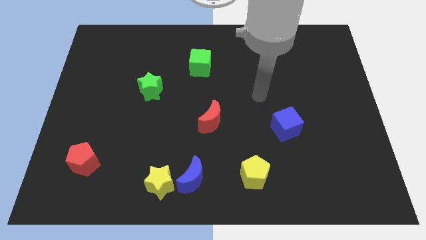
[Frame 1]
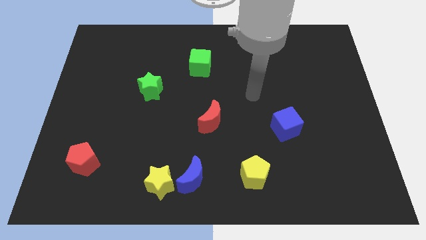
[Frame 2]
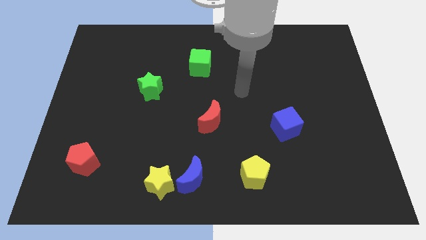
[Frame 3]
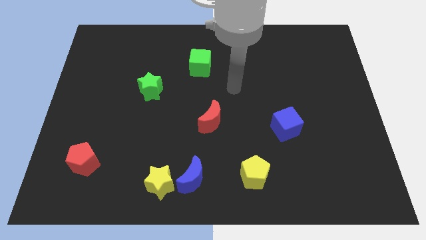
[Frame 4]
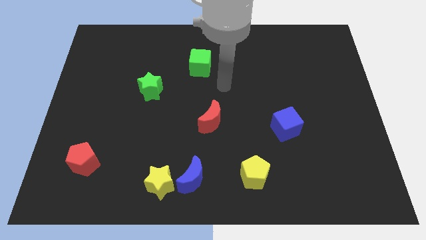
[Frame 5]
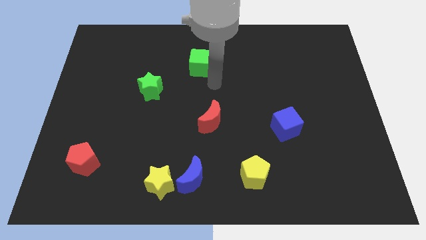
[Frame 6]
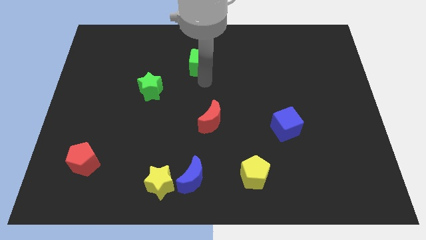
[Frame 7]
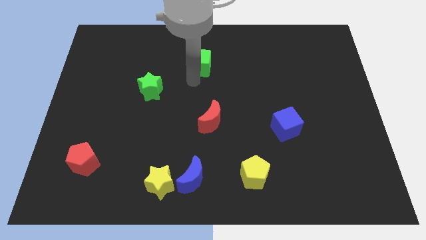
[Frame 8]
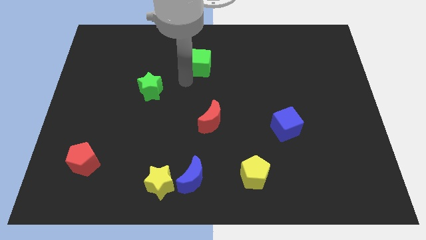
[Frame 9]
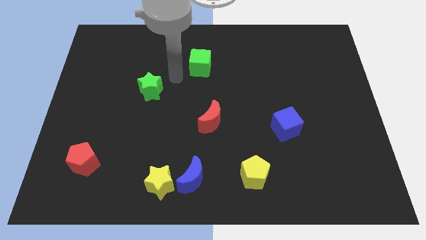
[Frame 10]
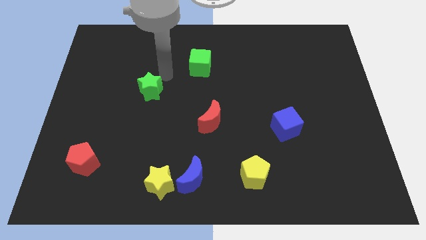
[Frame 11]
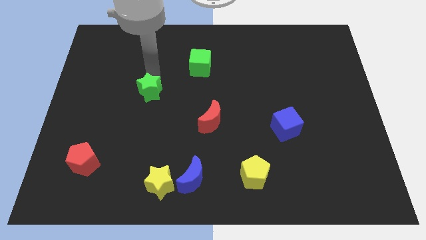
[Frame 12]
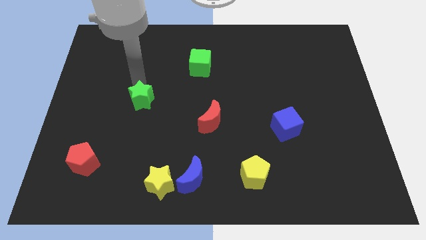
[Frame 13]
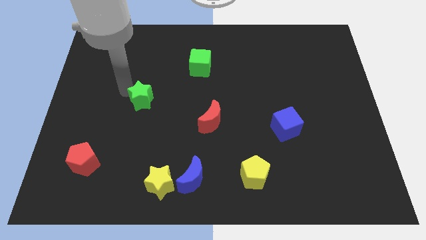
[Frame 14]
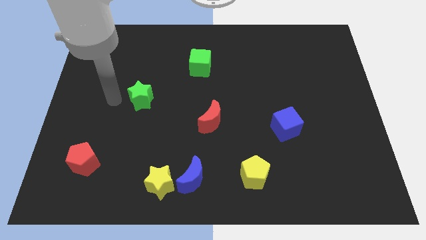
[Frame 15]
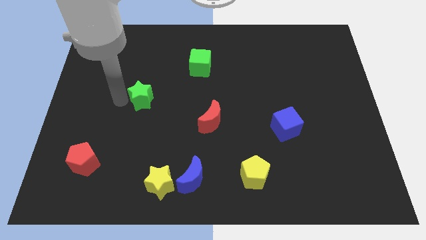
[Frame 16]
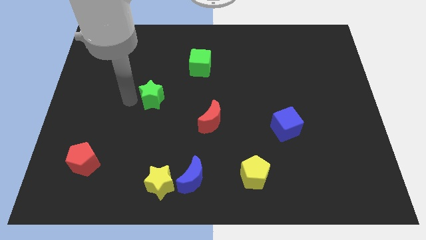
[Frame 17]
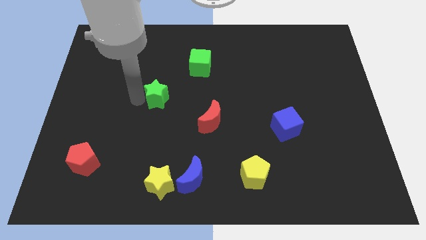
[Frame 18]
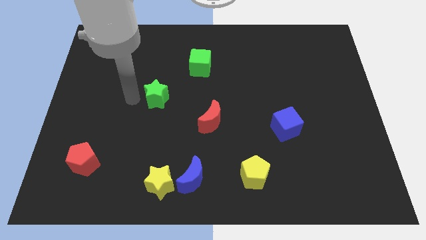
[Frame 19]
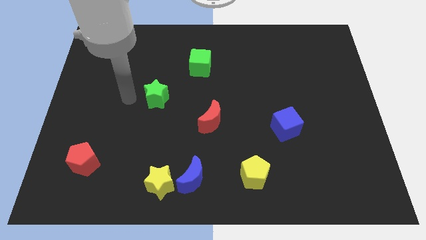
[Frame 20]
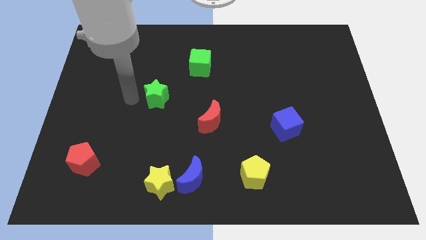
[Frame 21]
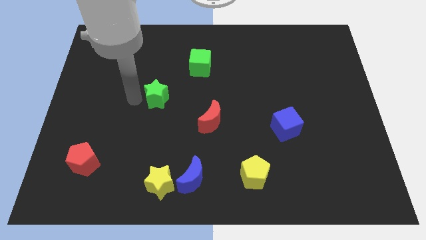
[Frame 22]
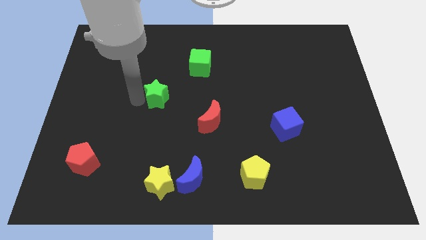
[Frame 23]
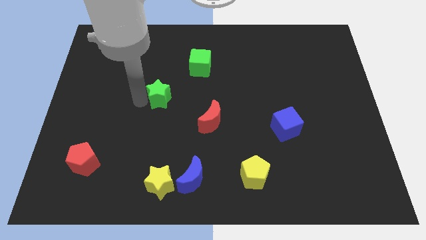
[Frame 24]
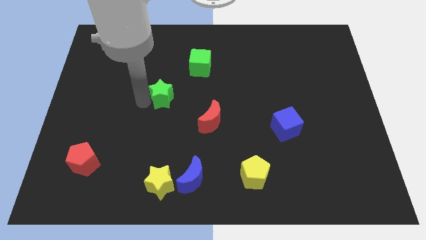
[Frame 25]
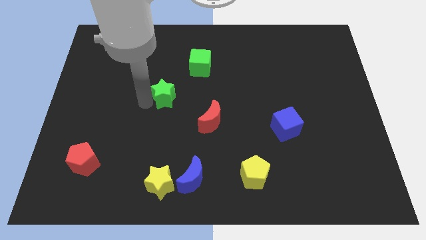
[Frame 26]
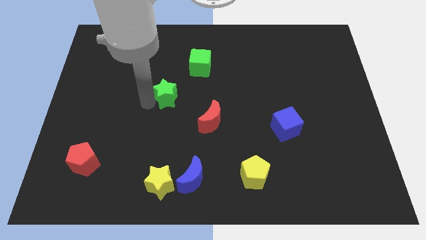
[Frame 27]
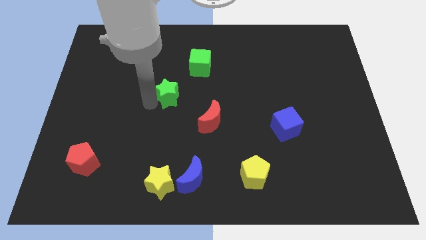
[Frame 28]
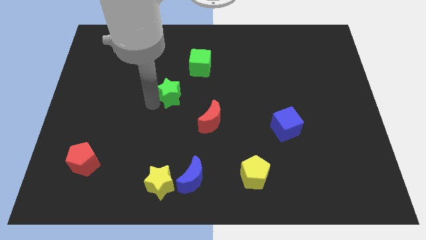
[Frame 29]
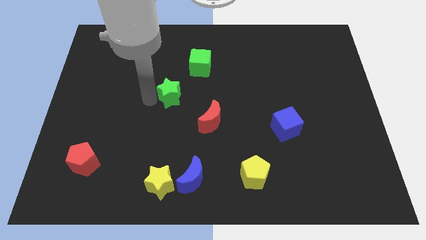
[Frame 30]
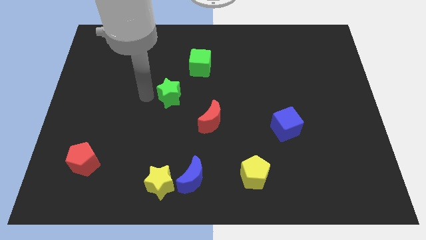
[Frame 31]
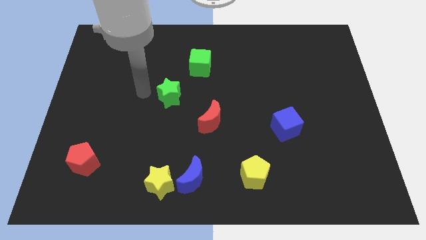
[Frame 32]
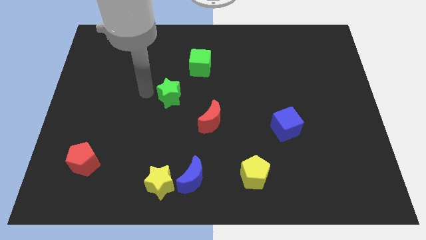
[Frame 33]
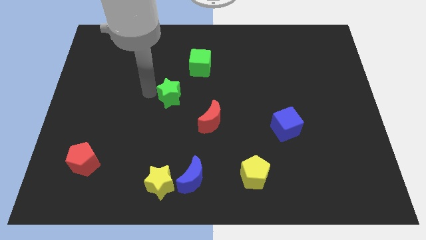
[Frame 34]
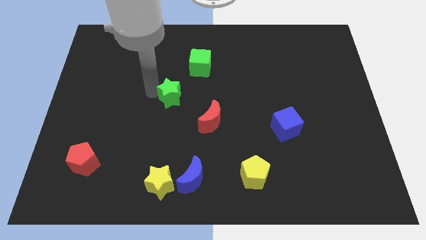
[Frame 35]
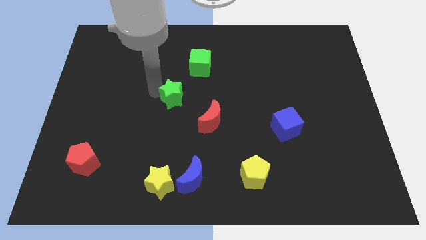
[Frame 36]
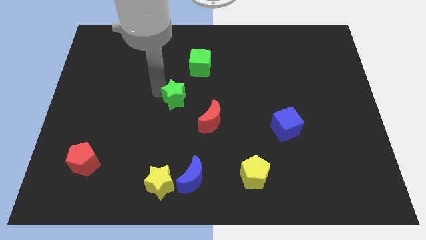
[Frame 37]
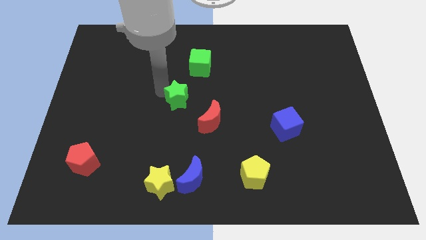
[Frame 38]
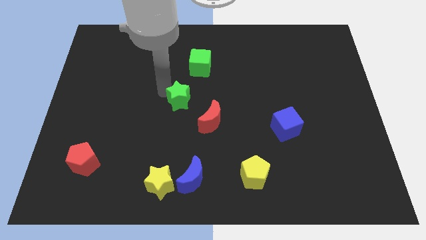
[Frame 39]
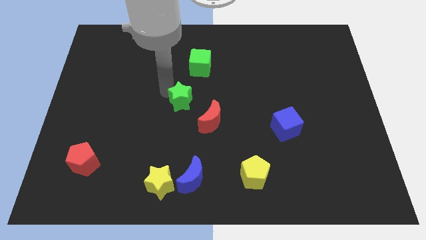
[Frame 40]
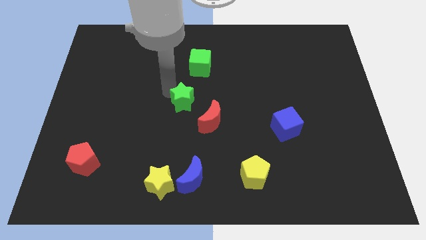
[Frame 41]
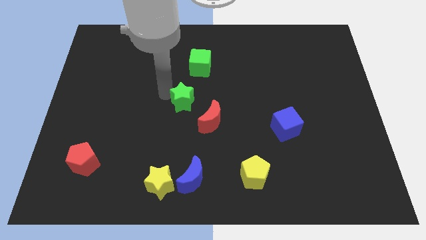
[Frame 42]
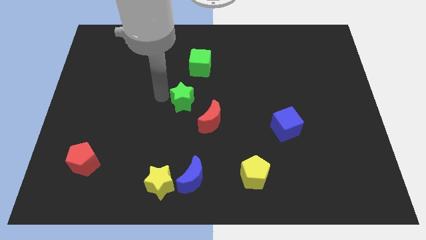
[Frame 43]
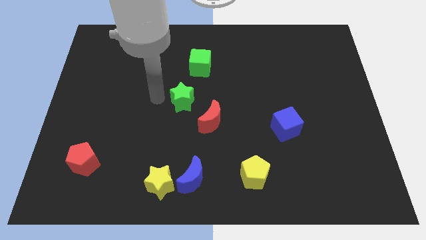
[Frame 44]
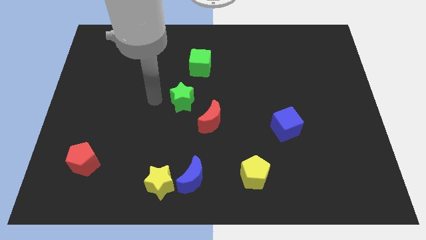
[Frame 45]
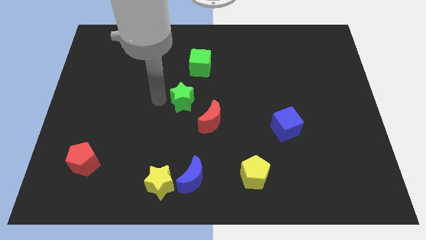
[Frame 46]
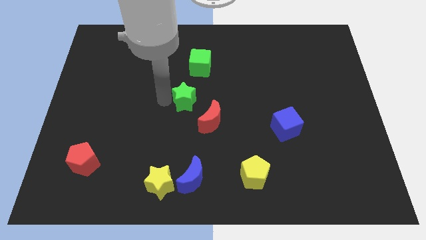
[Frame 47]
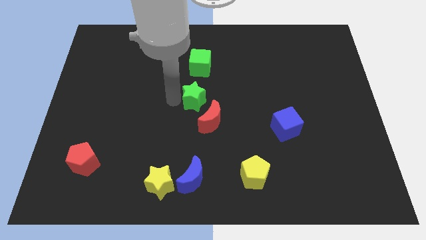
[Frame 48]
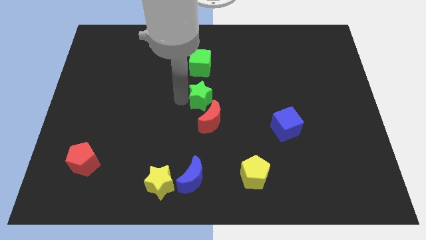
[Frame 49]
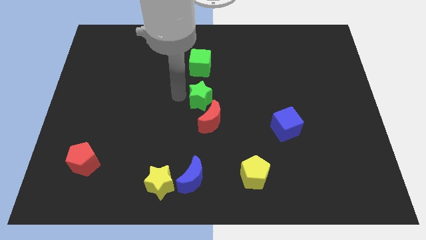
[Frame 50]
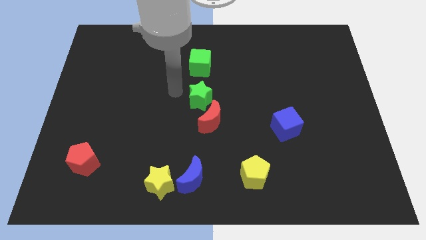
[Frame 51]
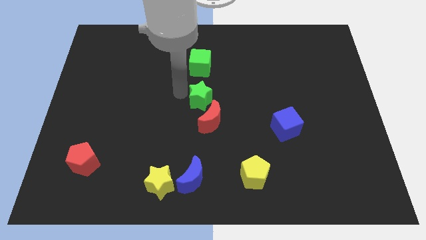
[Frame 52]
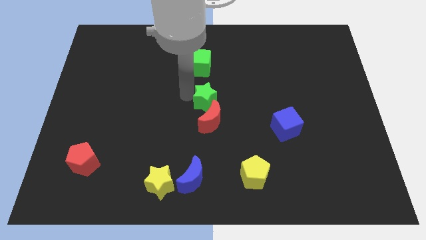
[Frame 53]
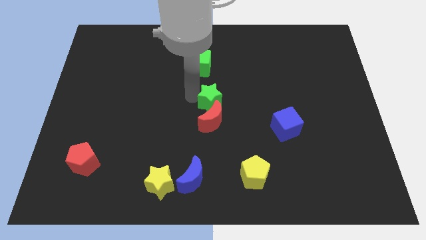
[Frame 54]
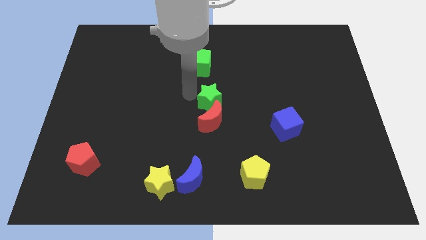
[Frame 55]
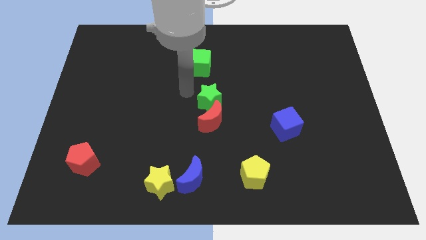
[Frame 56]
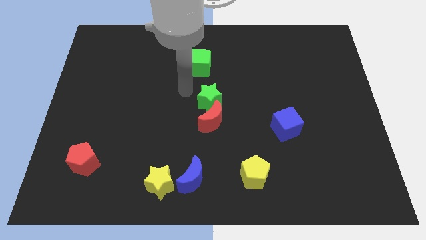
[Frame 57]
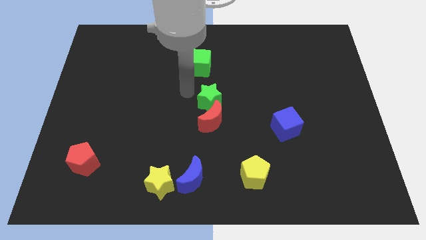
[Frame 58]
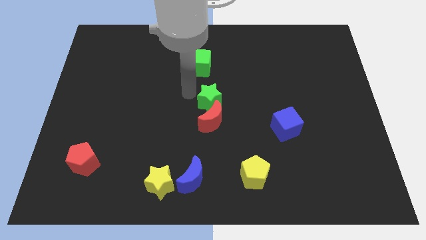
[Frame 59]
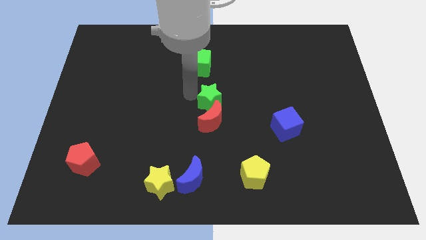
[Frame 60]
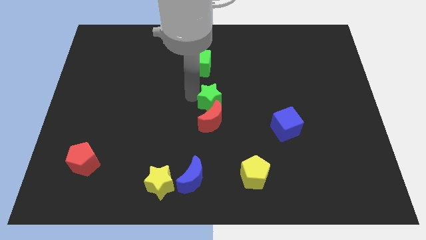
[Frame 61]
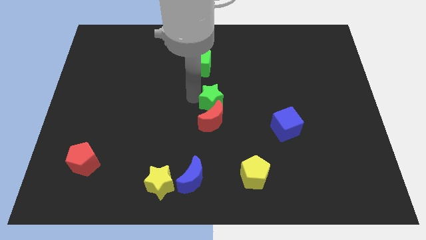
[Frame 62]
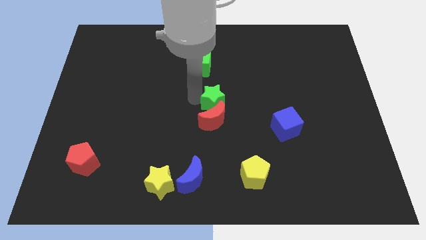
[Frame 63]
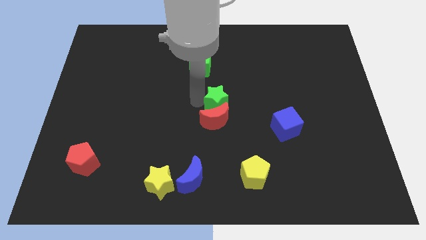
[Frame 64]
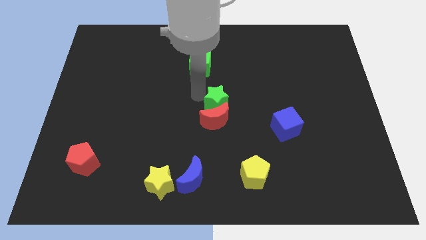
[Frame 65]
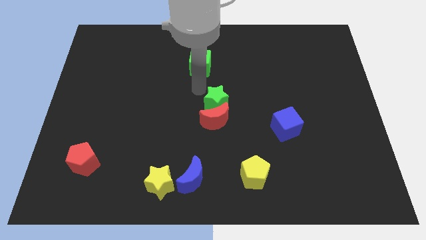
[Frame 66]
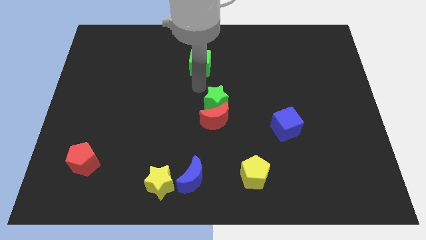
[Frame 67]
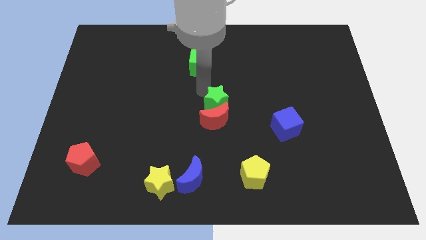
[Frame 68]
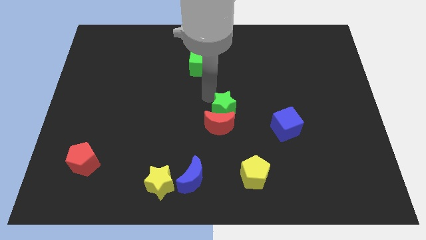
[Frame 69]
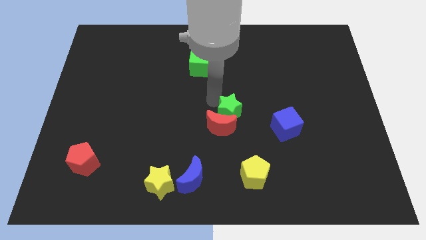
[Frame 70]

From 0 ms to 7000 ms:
move the green star left of the blue cube
